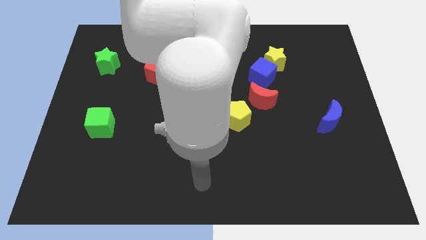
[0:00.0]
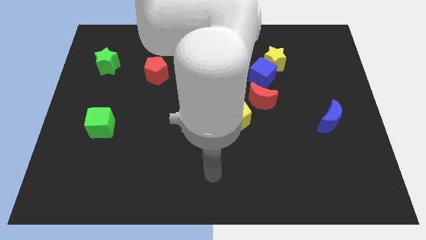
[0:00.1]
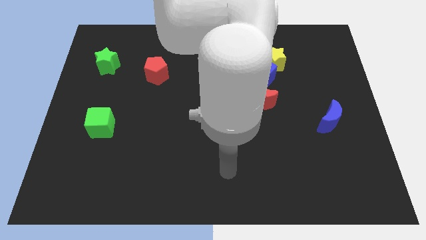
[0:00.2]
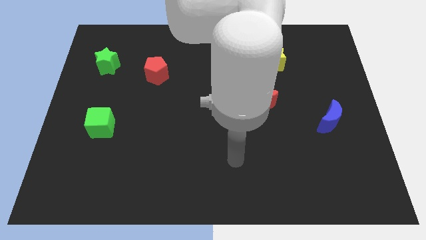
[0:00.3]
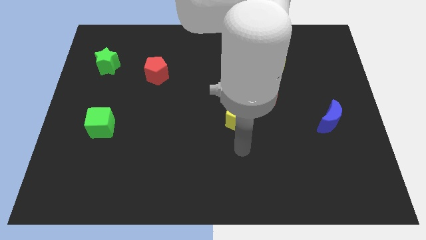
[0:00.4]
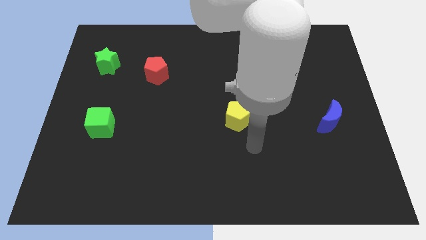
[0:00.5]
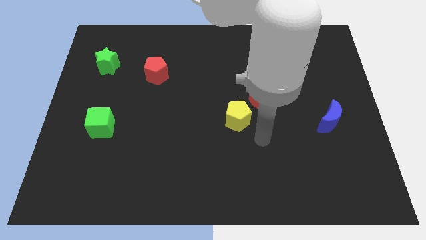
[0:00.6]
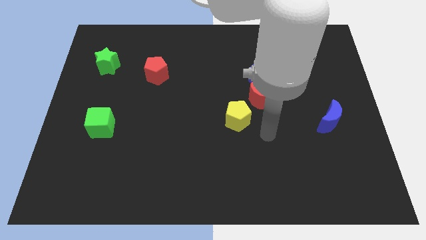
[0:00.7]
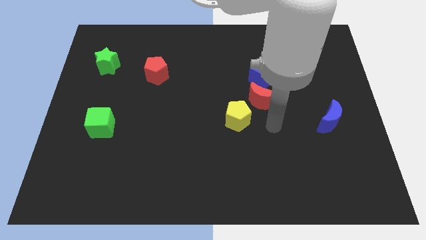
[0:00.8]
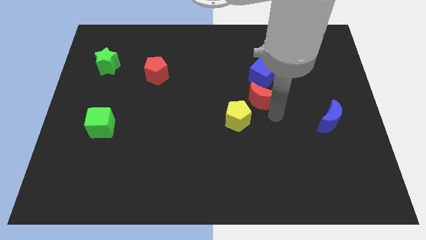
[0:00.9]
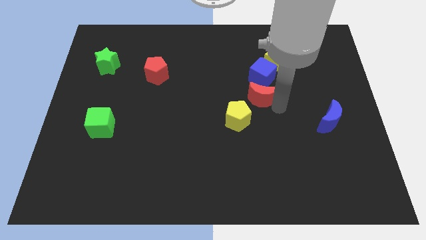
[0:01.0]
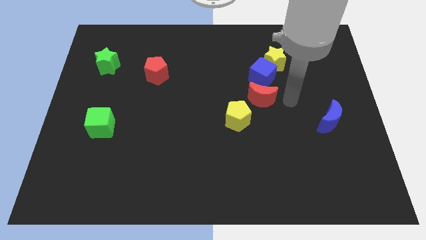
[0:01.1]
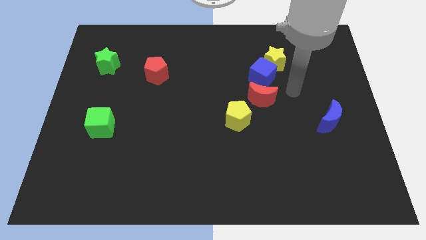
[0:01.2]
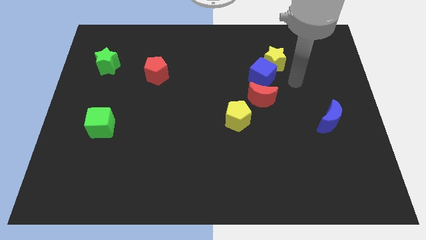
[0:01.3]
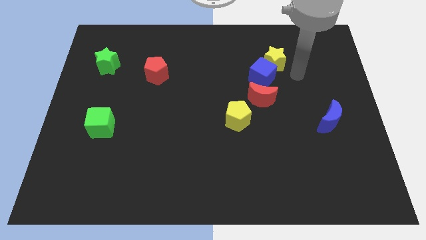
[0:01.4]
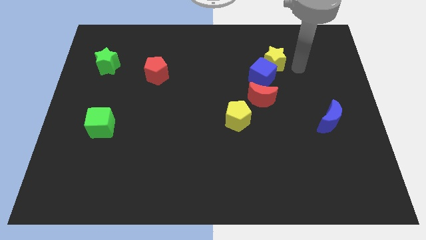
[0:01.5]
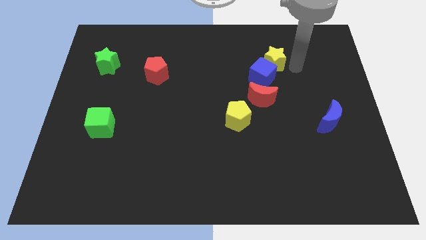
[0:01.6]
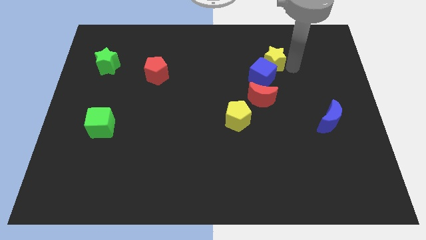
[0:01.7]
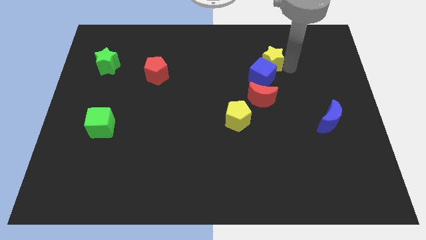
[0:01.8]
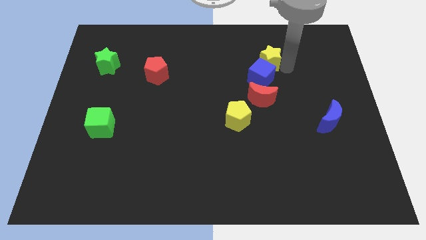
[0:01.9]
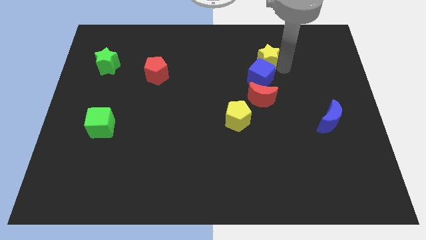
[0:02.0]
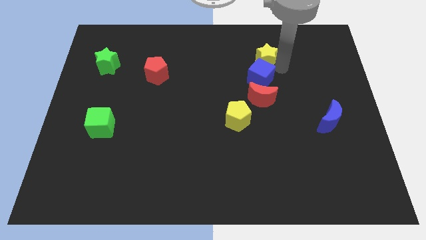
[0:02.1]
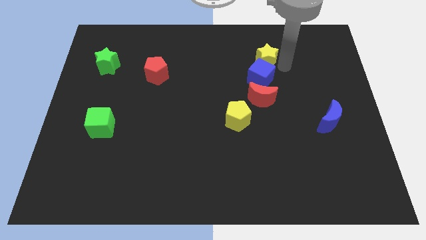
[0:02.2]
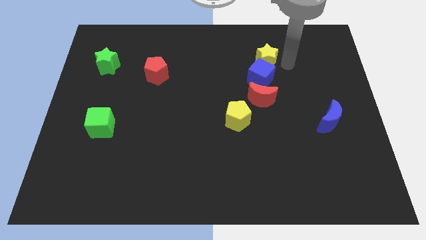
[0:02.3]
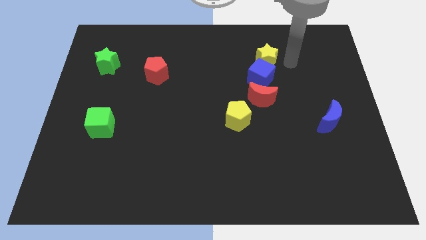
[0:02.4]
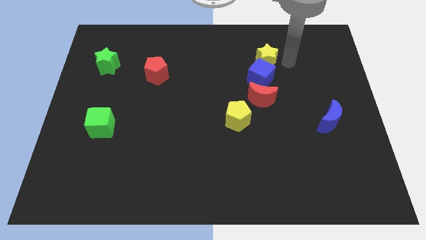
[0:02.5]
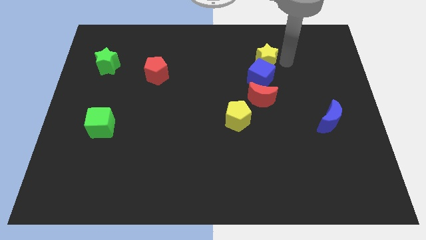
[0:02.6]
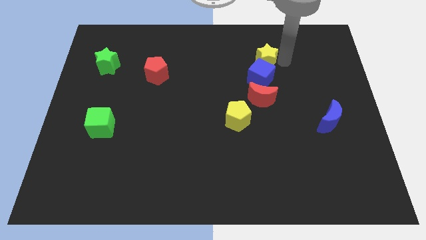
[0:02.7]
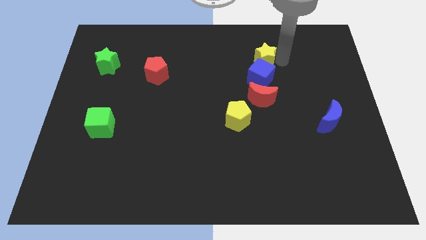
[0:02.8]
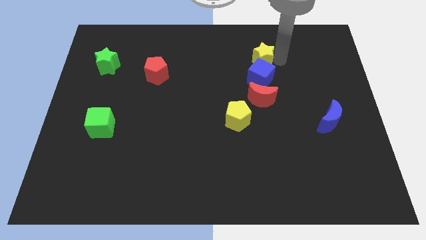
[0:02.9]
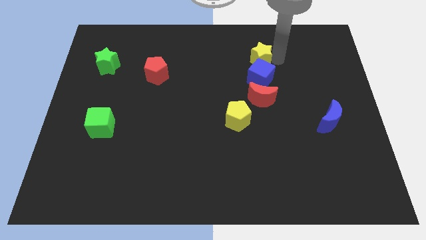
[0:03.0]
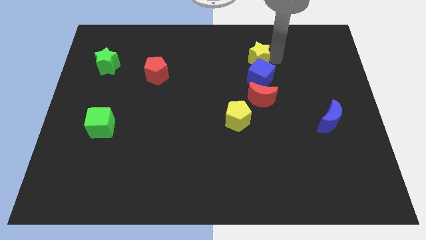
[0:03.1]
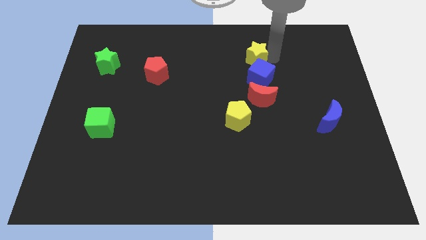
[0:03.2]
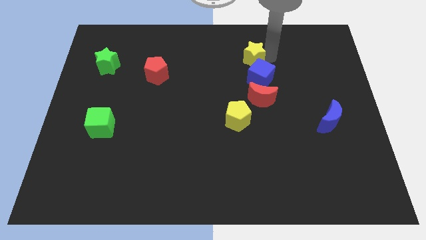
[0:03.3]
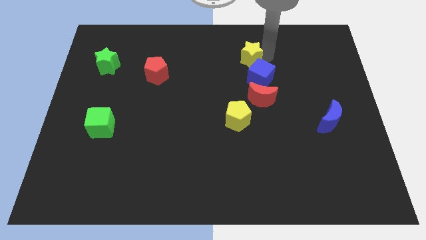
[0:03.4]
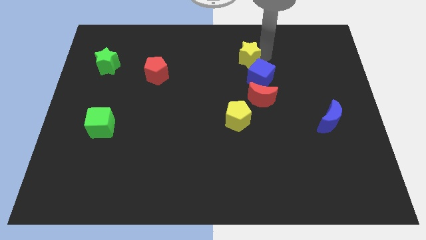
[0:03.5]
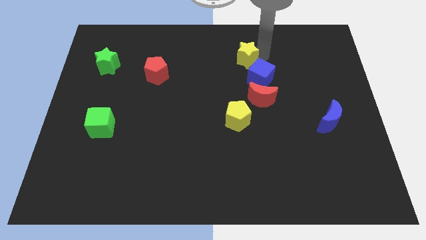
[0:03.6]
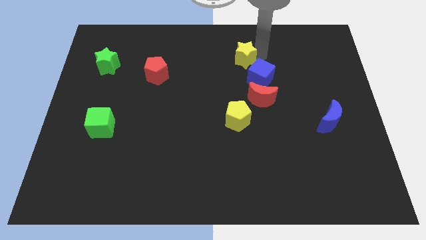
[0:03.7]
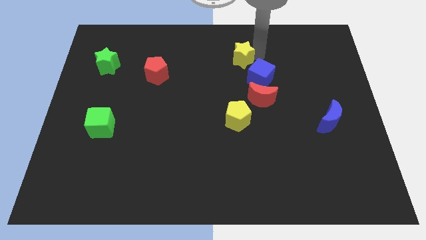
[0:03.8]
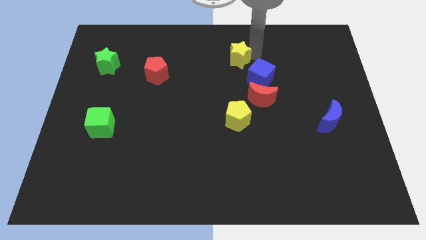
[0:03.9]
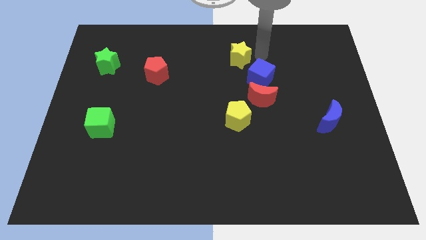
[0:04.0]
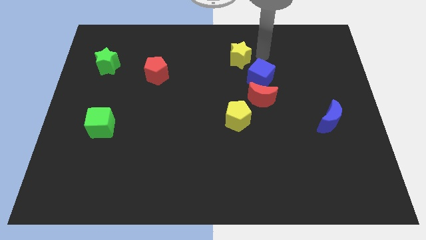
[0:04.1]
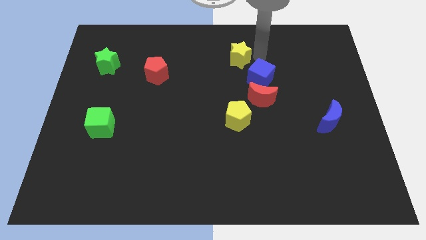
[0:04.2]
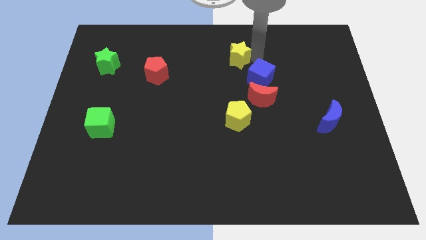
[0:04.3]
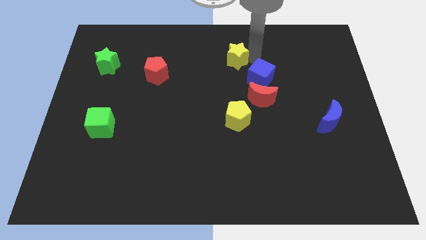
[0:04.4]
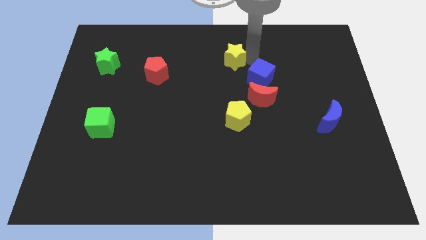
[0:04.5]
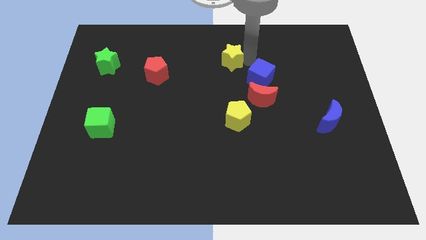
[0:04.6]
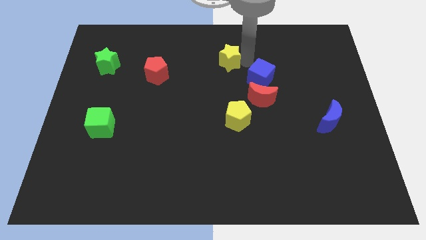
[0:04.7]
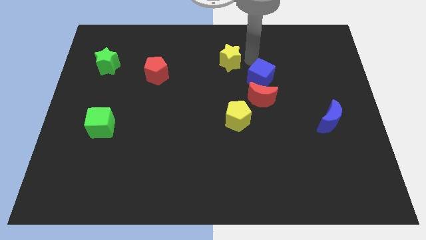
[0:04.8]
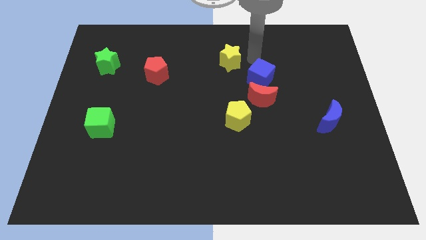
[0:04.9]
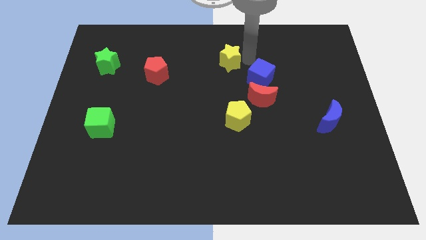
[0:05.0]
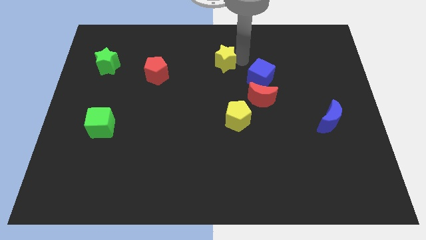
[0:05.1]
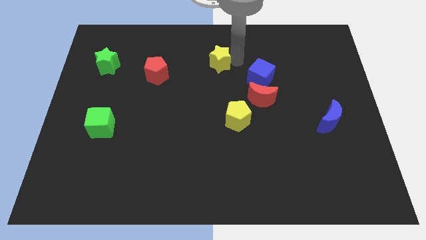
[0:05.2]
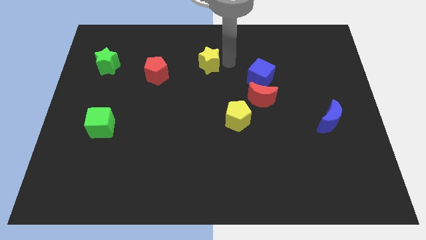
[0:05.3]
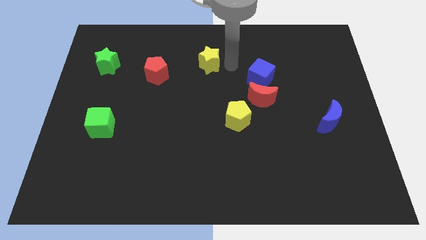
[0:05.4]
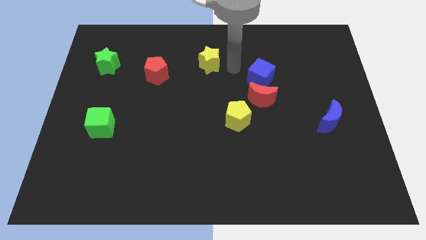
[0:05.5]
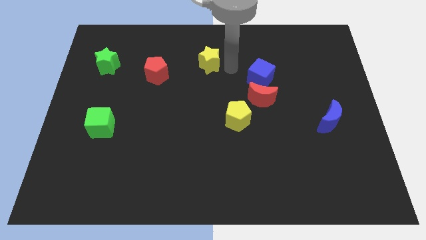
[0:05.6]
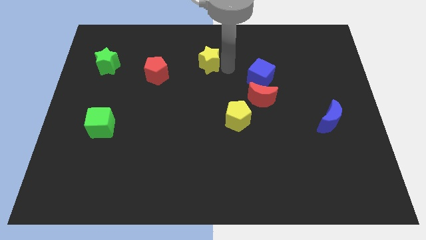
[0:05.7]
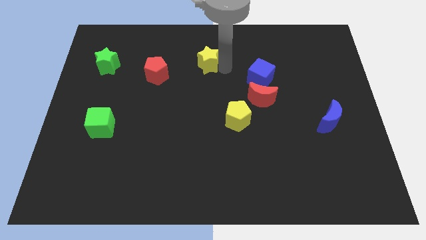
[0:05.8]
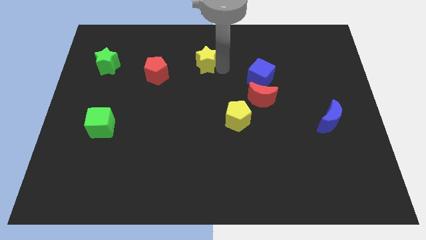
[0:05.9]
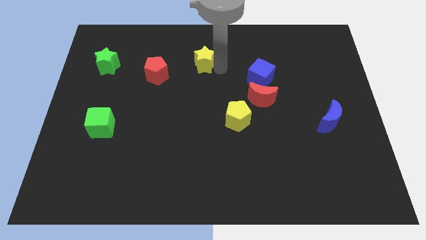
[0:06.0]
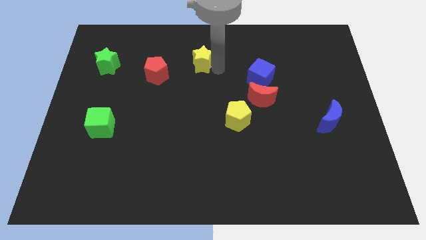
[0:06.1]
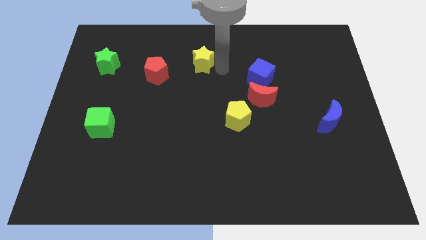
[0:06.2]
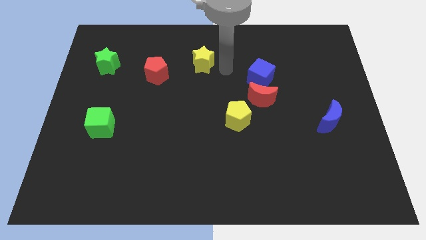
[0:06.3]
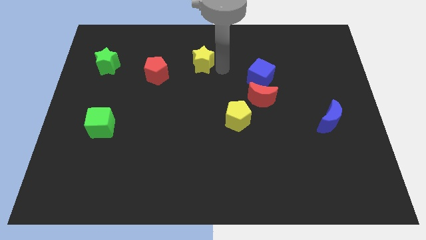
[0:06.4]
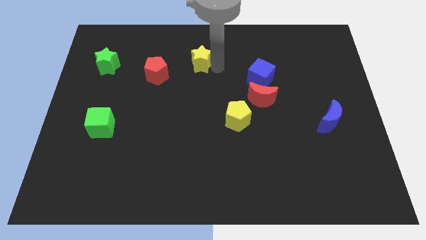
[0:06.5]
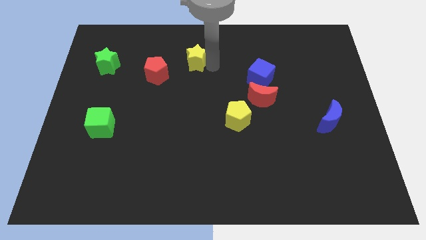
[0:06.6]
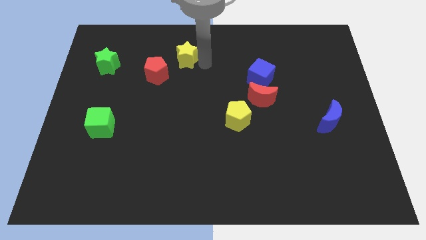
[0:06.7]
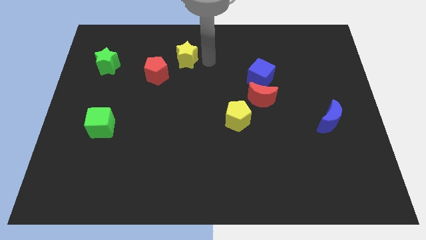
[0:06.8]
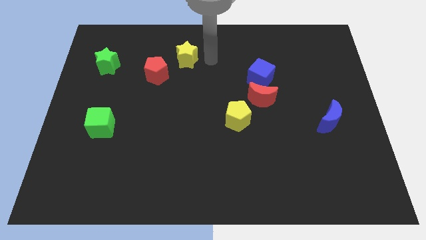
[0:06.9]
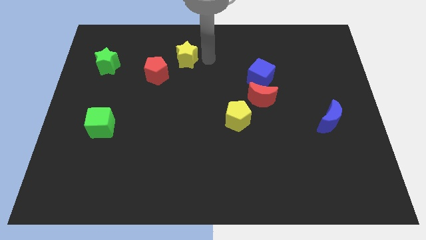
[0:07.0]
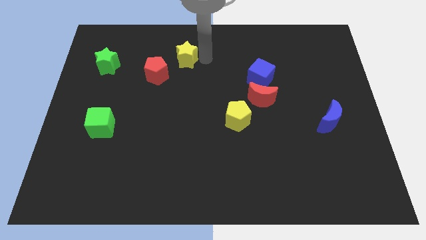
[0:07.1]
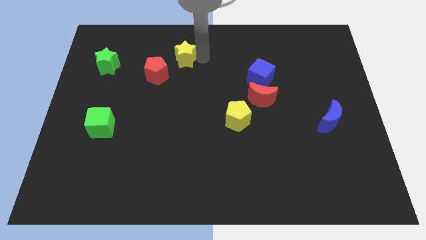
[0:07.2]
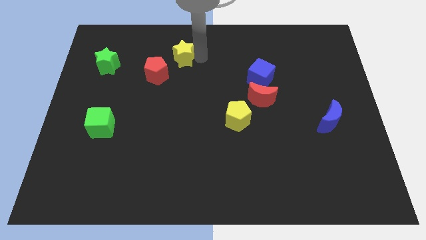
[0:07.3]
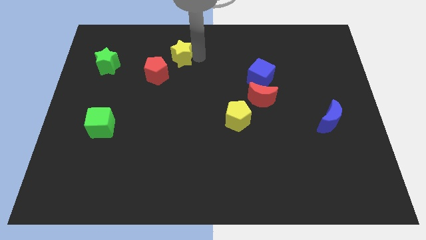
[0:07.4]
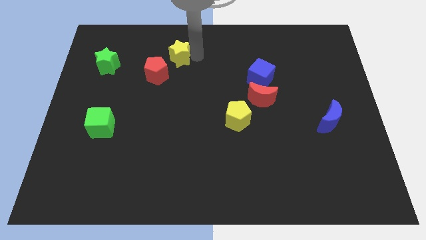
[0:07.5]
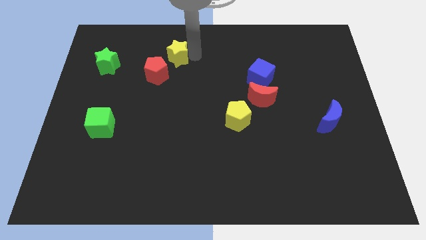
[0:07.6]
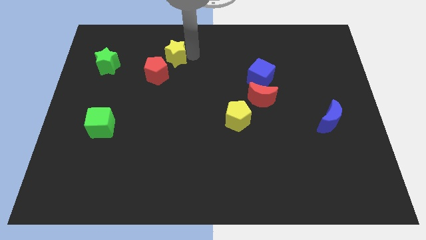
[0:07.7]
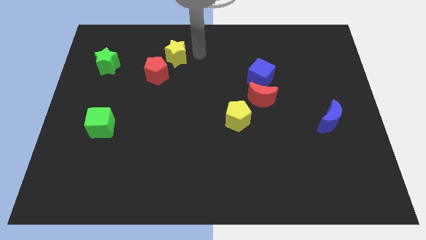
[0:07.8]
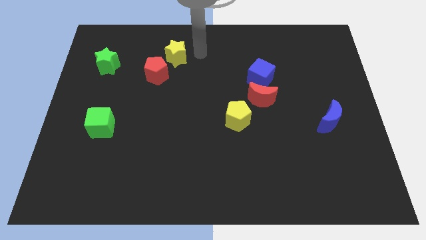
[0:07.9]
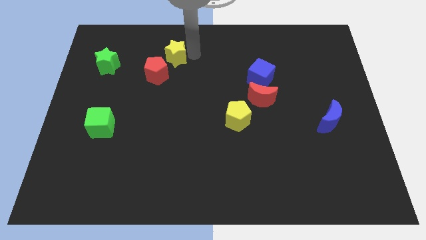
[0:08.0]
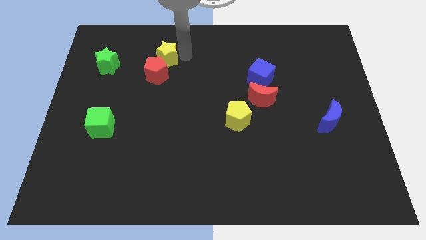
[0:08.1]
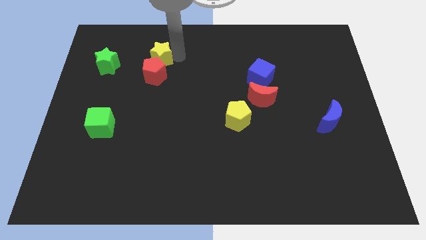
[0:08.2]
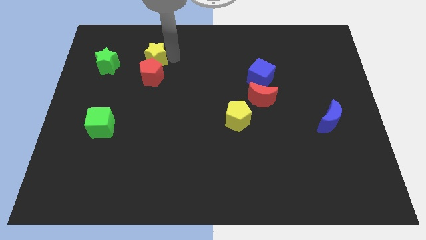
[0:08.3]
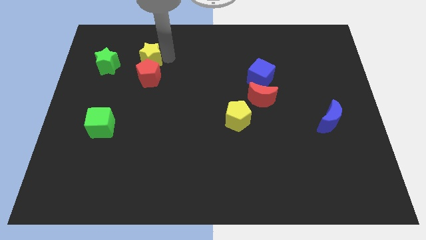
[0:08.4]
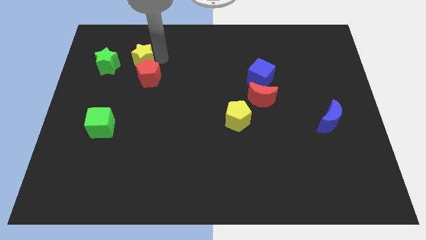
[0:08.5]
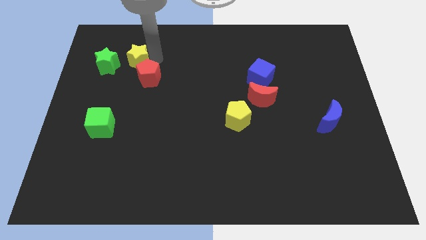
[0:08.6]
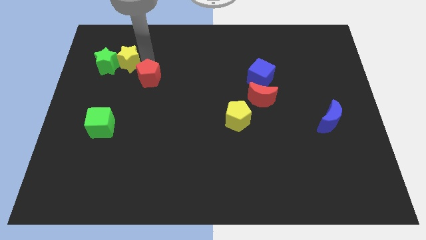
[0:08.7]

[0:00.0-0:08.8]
slide the yellow star towards the green star
